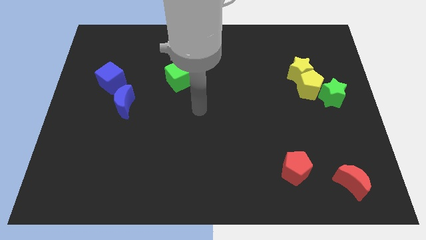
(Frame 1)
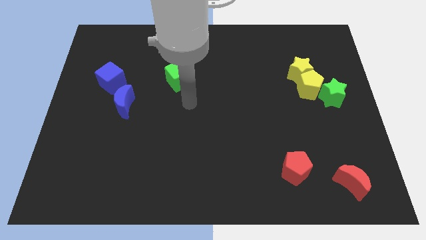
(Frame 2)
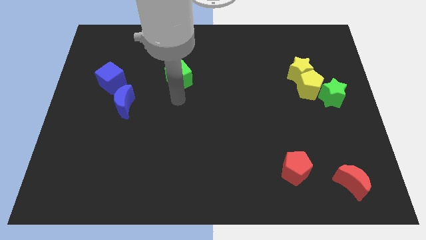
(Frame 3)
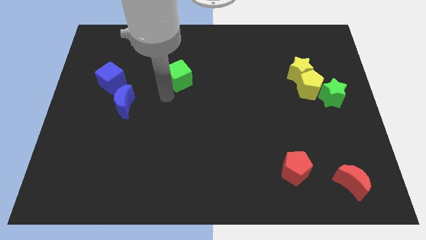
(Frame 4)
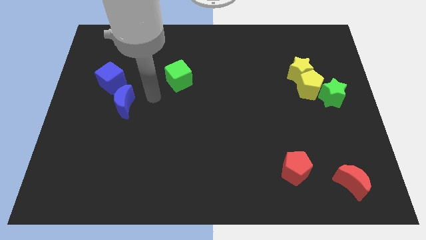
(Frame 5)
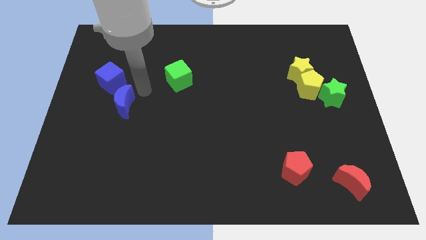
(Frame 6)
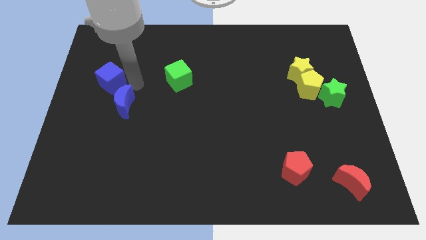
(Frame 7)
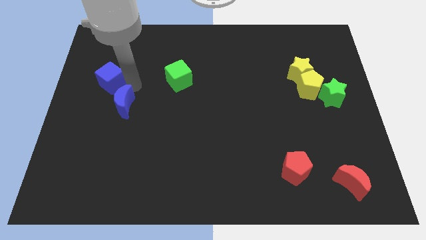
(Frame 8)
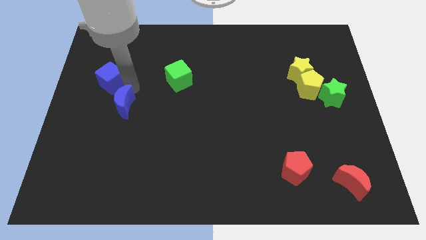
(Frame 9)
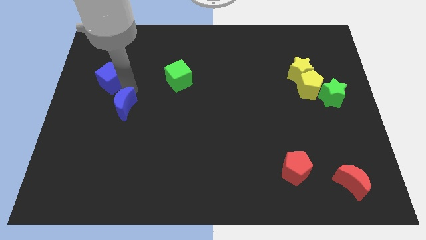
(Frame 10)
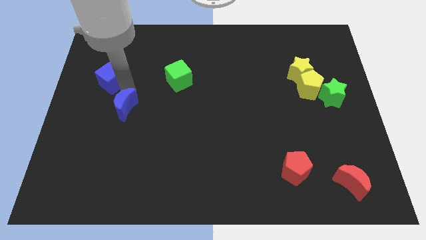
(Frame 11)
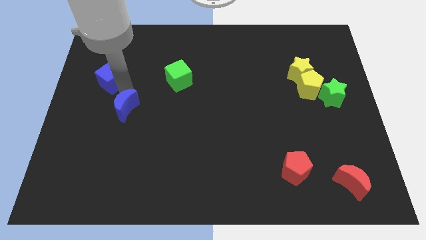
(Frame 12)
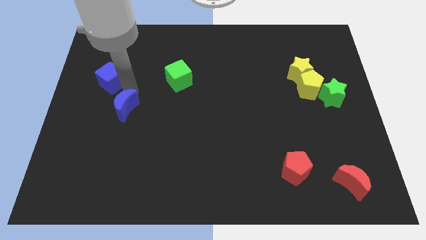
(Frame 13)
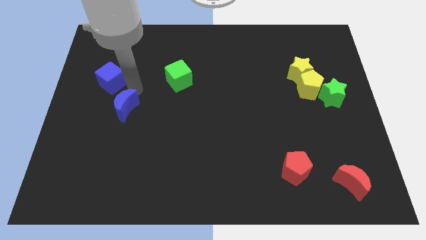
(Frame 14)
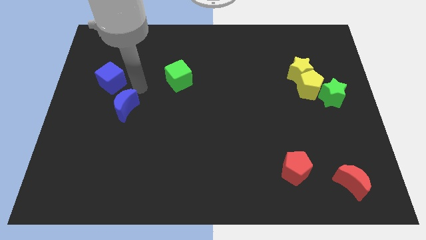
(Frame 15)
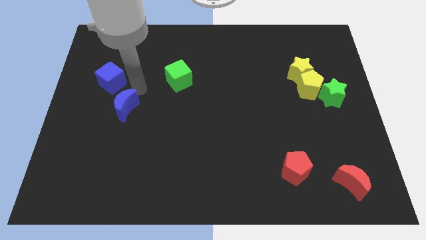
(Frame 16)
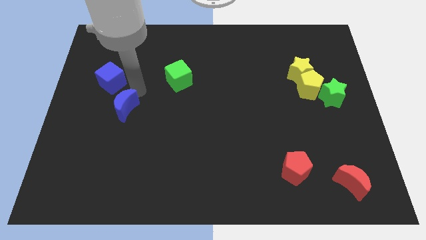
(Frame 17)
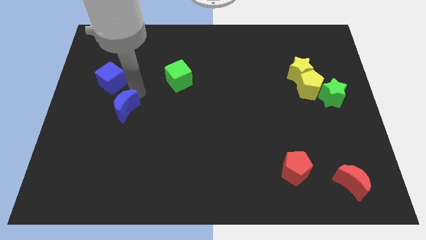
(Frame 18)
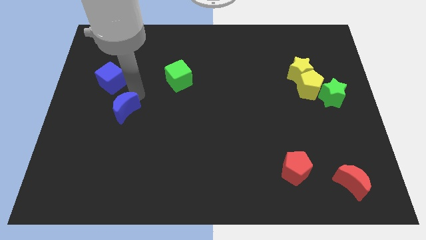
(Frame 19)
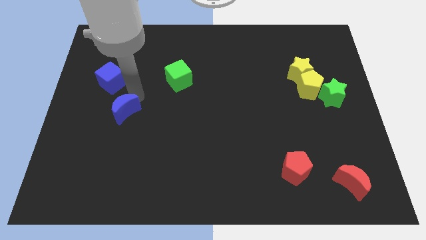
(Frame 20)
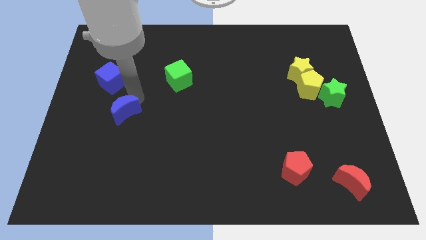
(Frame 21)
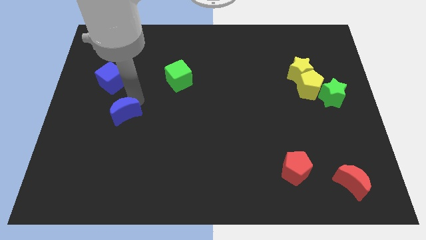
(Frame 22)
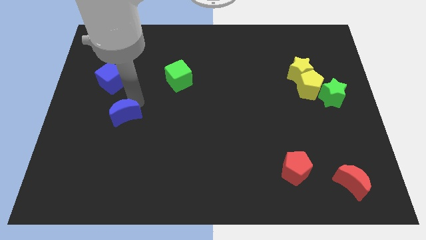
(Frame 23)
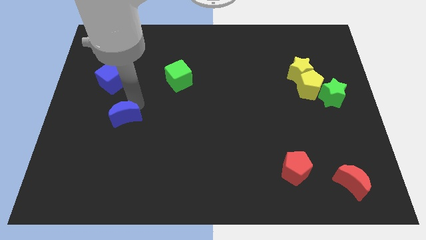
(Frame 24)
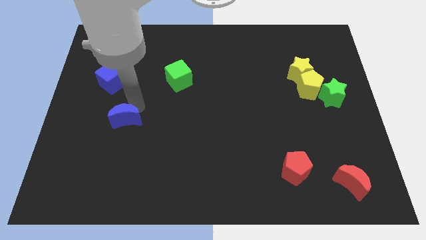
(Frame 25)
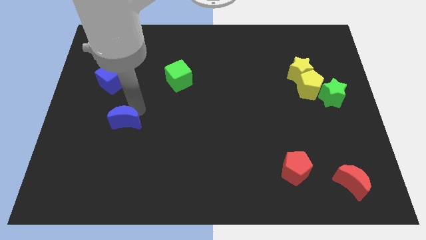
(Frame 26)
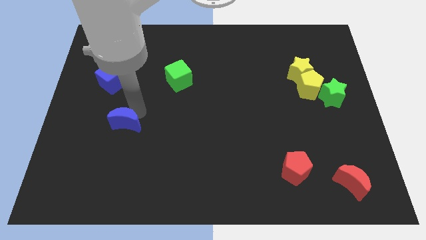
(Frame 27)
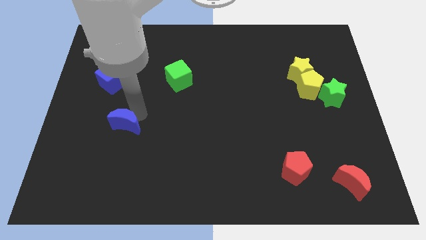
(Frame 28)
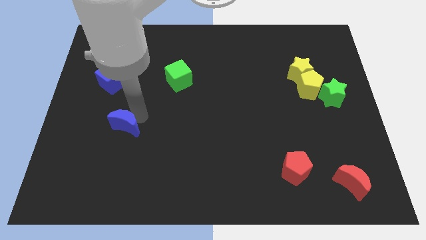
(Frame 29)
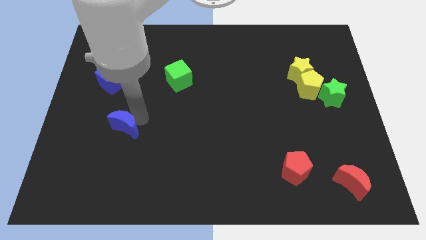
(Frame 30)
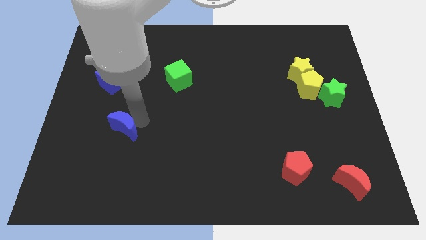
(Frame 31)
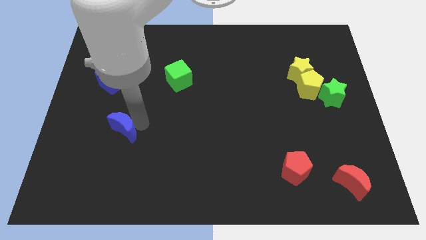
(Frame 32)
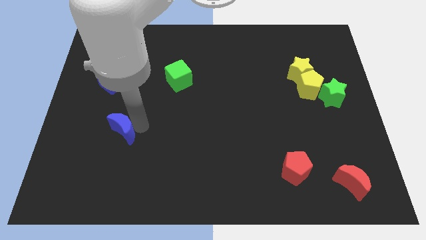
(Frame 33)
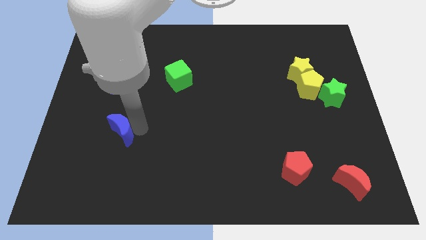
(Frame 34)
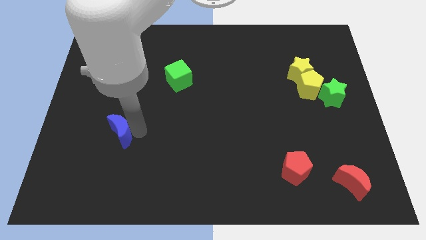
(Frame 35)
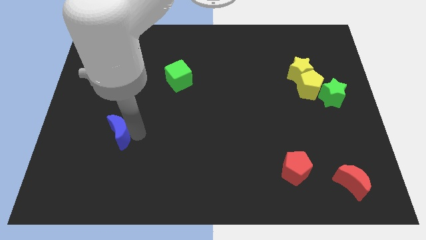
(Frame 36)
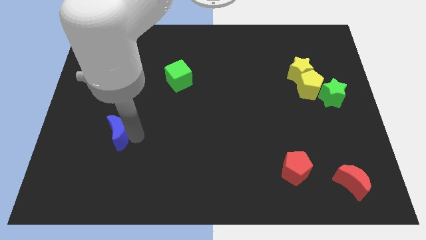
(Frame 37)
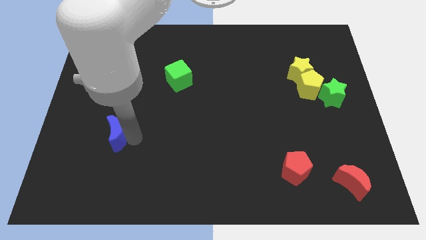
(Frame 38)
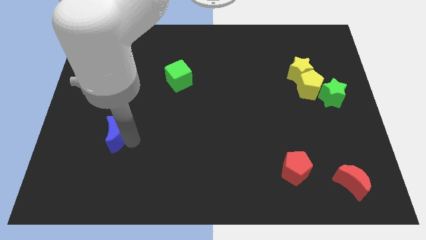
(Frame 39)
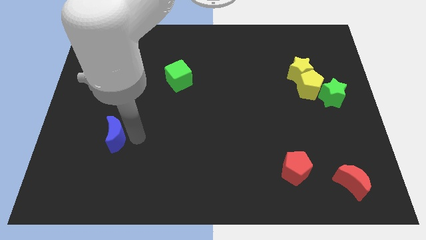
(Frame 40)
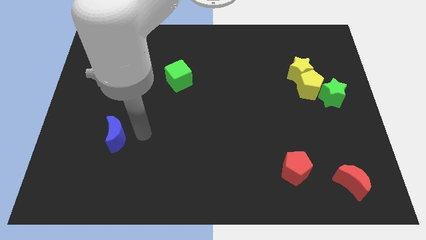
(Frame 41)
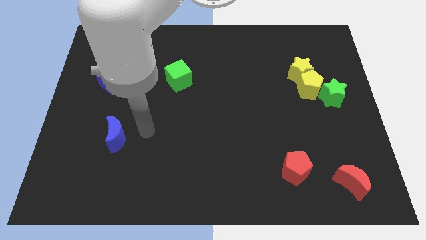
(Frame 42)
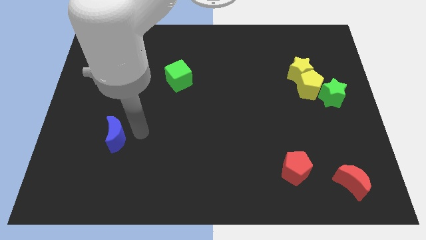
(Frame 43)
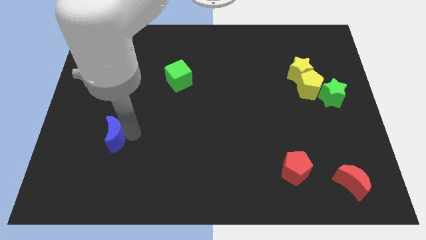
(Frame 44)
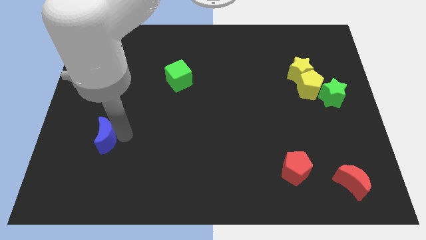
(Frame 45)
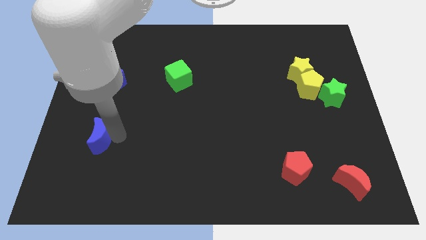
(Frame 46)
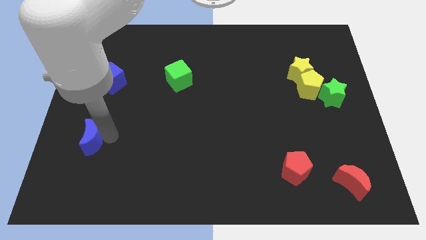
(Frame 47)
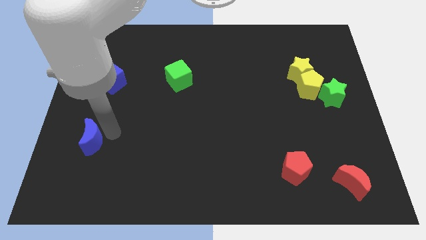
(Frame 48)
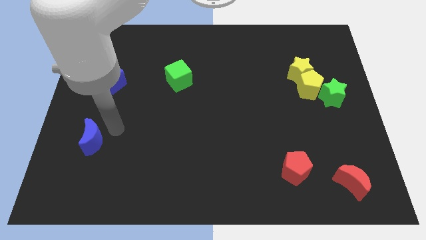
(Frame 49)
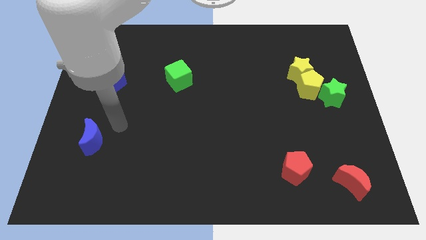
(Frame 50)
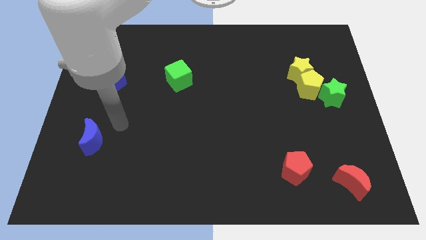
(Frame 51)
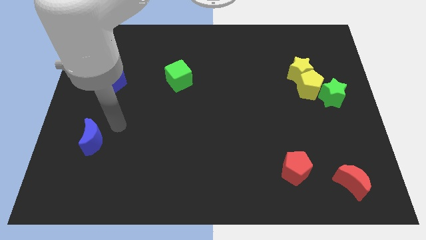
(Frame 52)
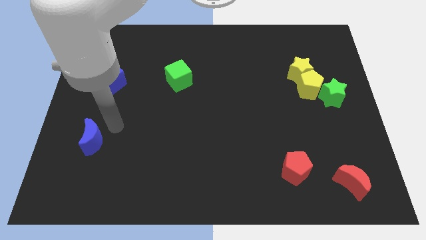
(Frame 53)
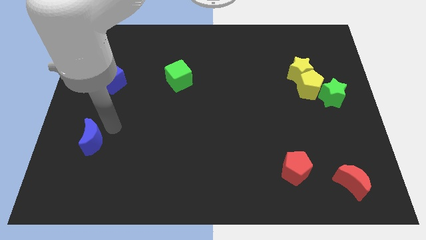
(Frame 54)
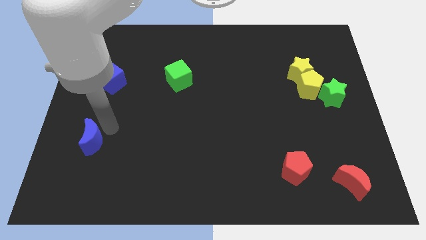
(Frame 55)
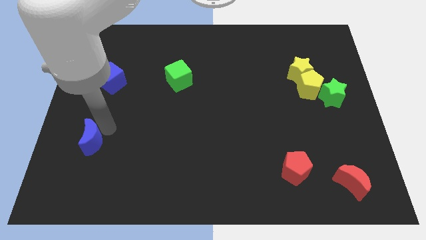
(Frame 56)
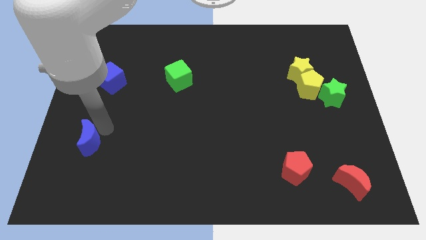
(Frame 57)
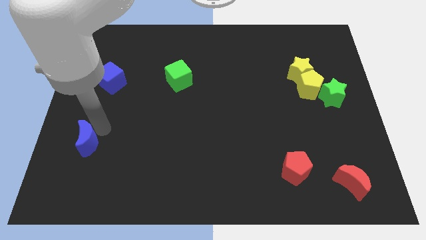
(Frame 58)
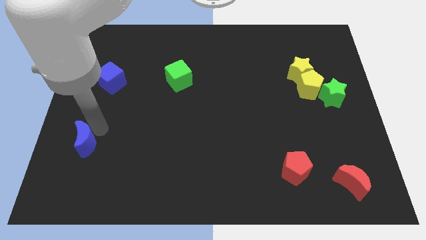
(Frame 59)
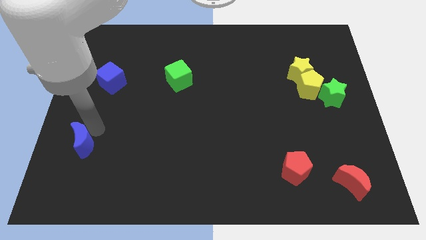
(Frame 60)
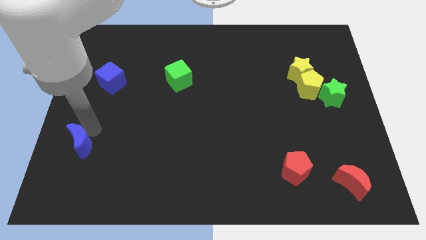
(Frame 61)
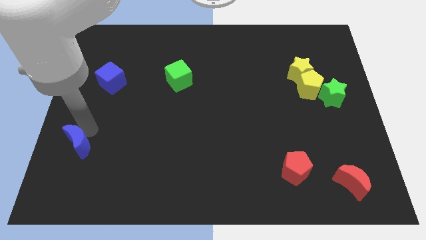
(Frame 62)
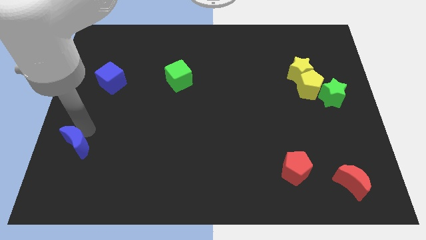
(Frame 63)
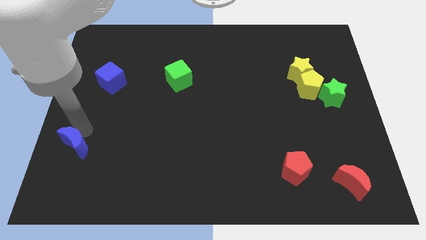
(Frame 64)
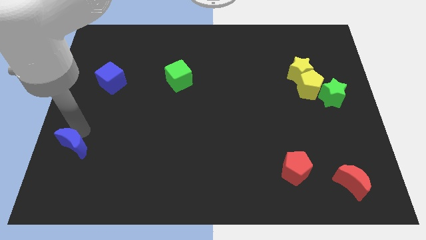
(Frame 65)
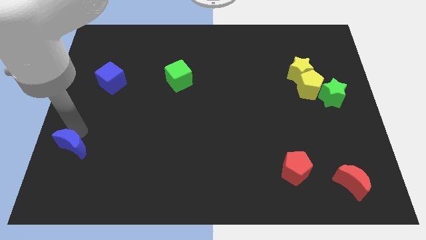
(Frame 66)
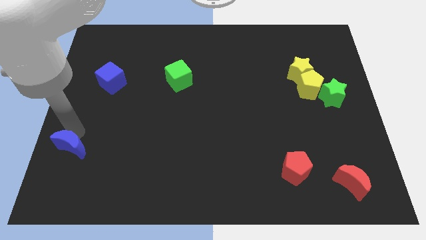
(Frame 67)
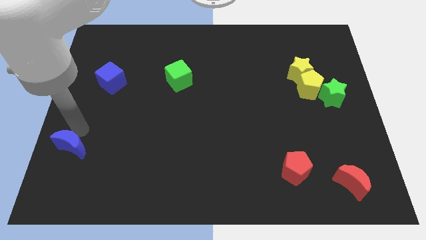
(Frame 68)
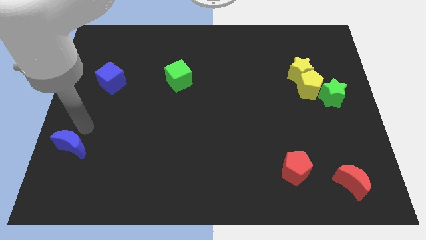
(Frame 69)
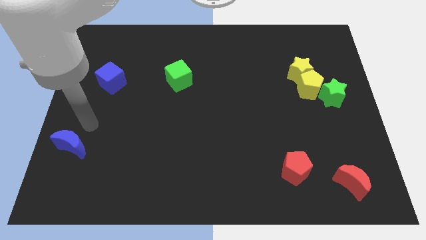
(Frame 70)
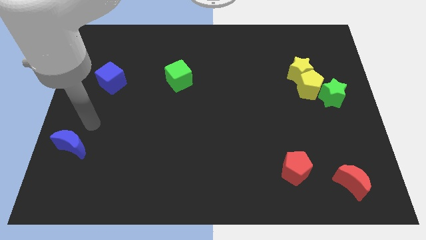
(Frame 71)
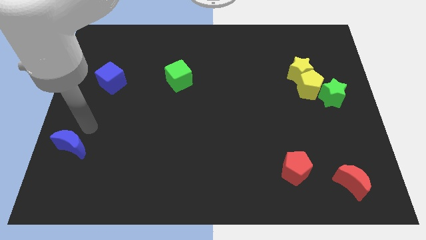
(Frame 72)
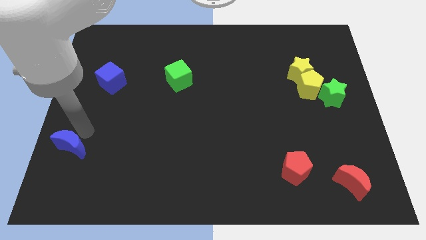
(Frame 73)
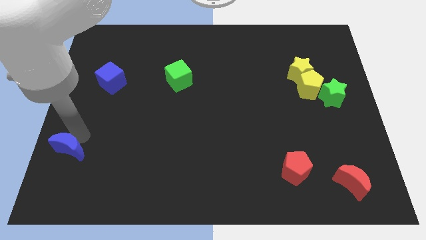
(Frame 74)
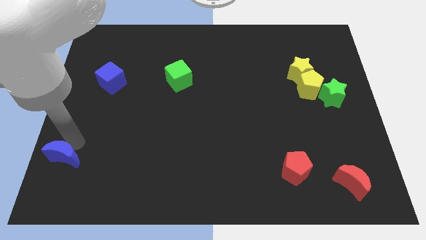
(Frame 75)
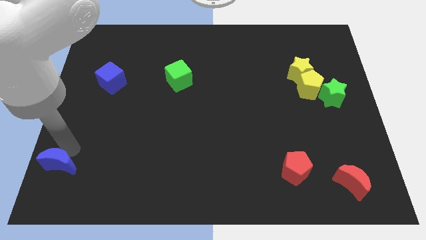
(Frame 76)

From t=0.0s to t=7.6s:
move the blue moon to the bottom left of the board

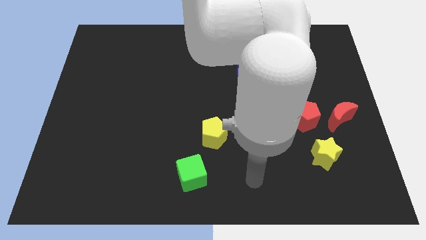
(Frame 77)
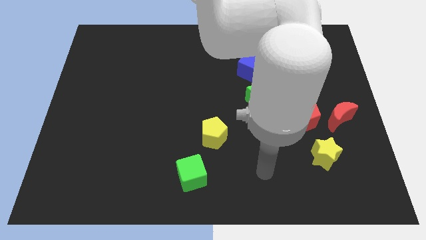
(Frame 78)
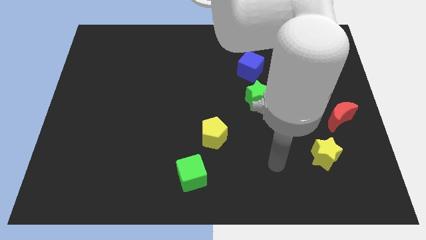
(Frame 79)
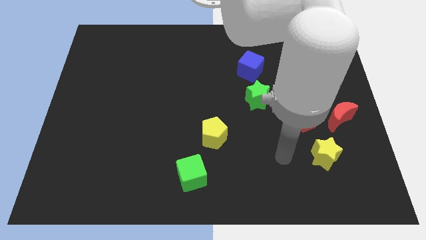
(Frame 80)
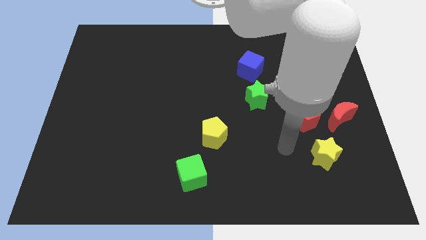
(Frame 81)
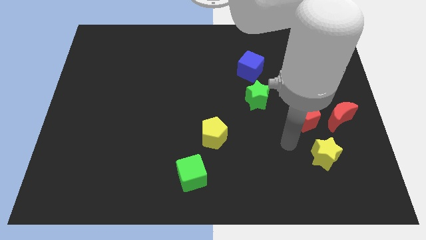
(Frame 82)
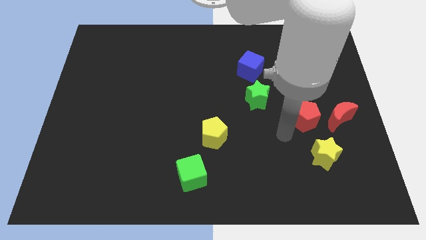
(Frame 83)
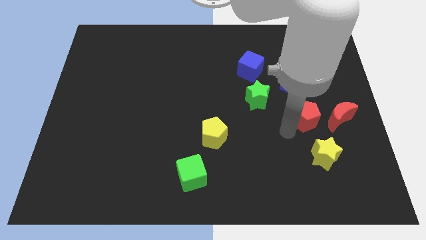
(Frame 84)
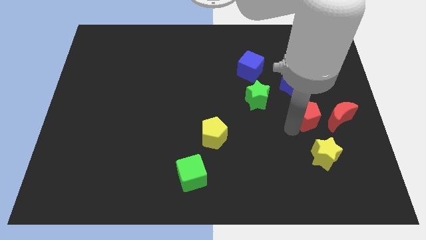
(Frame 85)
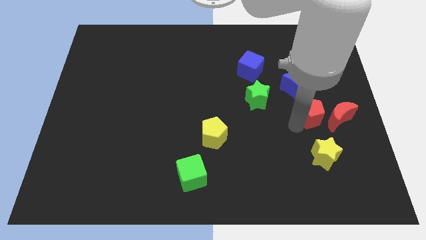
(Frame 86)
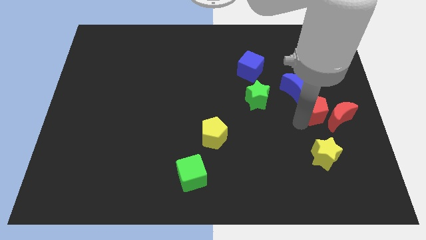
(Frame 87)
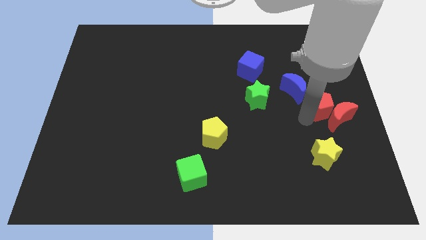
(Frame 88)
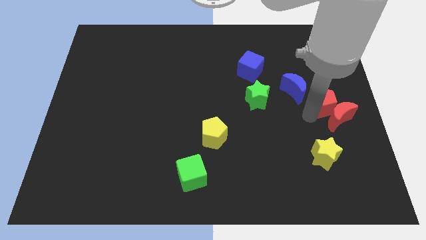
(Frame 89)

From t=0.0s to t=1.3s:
slide the red pentagon to the right side
